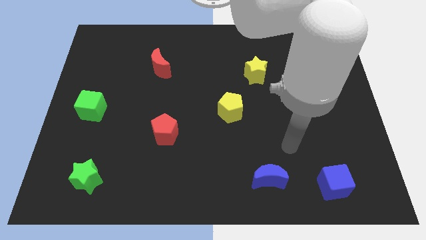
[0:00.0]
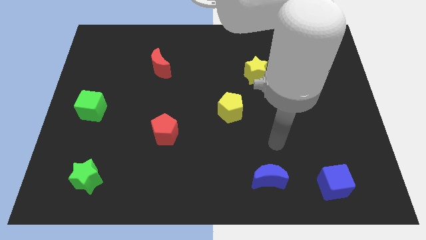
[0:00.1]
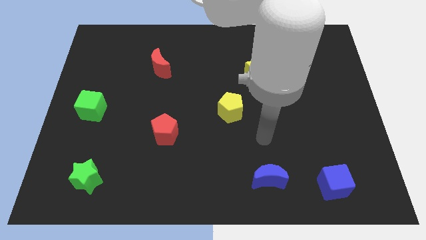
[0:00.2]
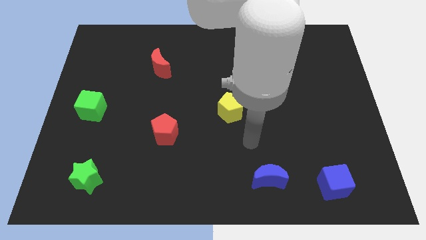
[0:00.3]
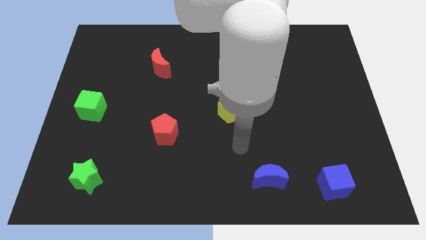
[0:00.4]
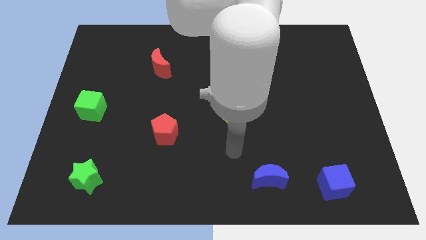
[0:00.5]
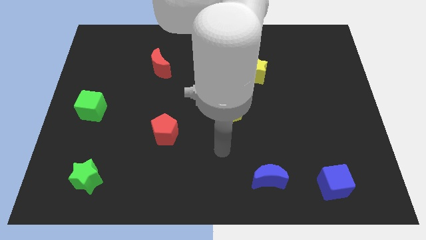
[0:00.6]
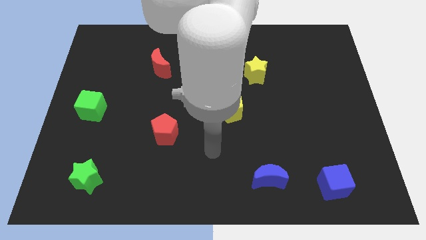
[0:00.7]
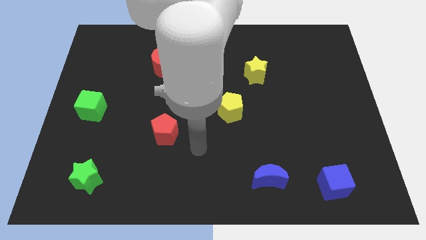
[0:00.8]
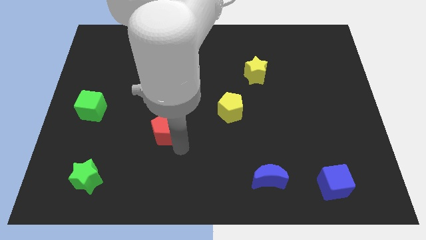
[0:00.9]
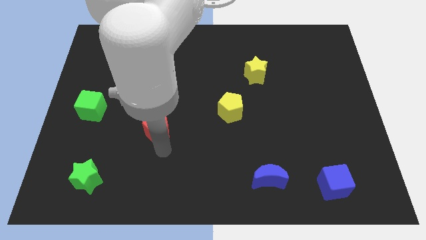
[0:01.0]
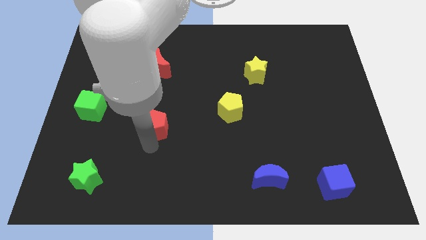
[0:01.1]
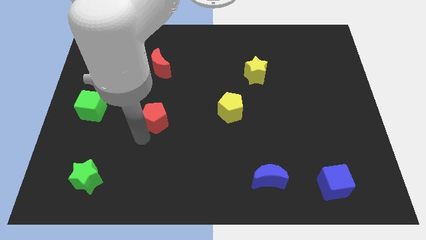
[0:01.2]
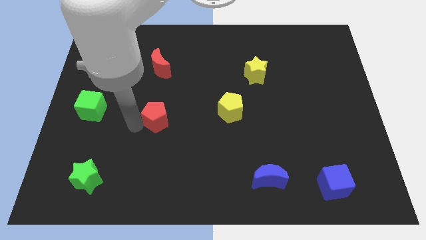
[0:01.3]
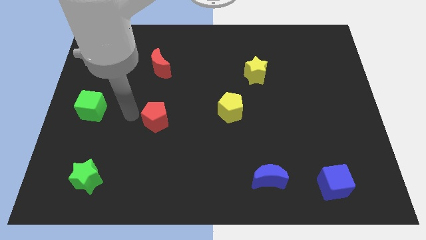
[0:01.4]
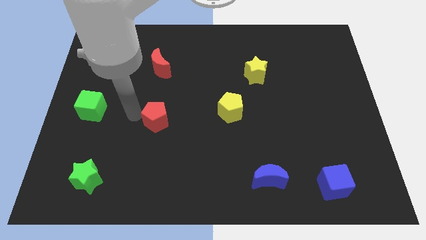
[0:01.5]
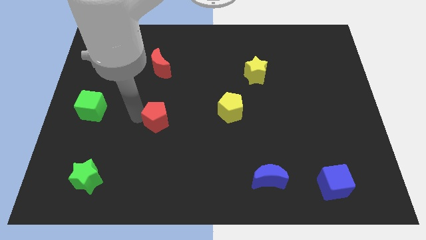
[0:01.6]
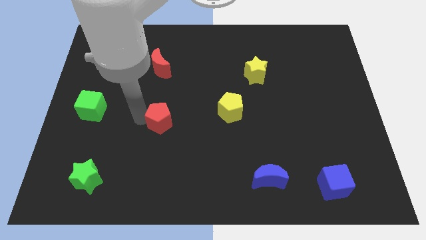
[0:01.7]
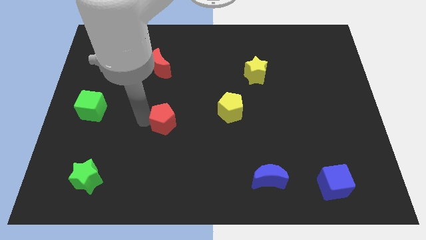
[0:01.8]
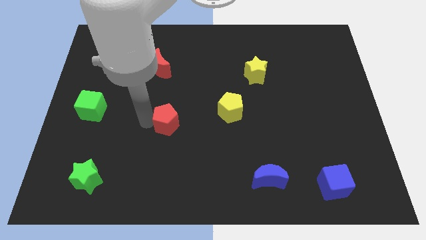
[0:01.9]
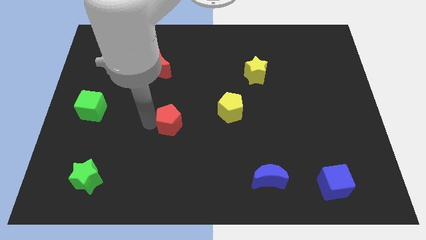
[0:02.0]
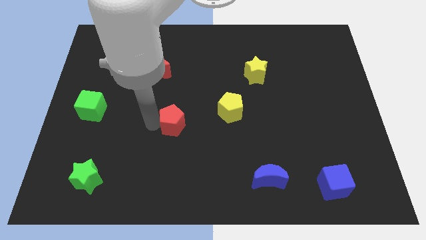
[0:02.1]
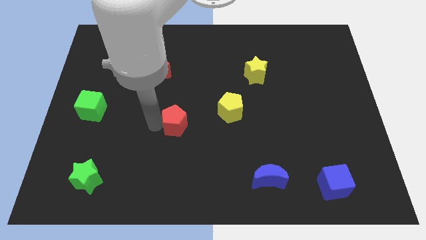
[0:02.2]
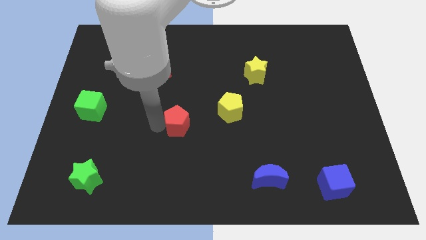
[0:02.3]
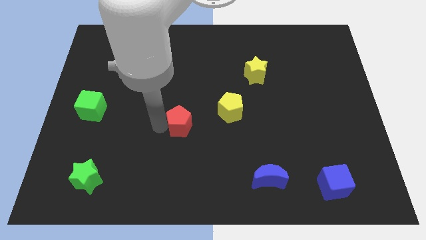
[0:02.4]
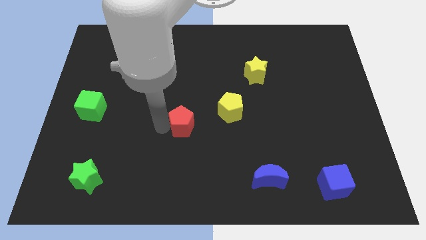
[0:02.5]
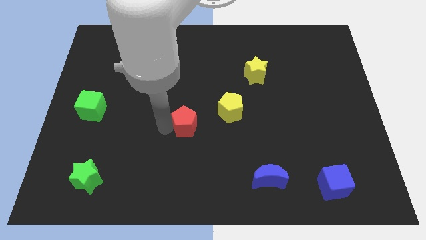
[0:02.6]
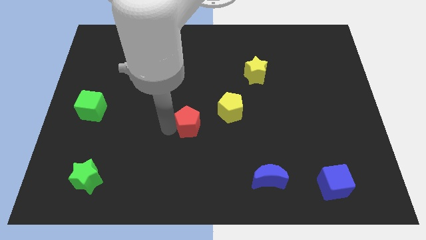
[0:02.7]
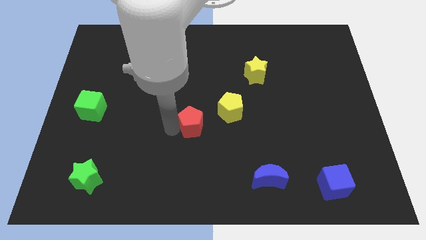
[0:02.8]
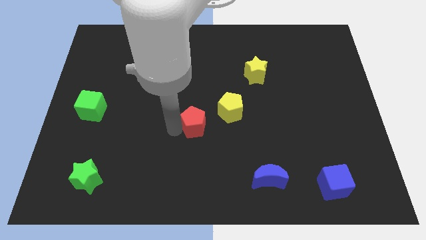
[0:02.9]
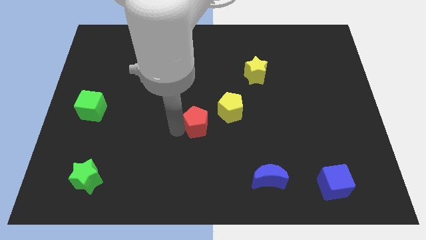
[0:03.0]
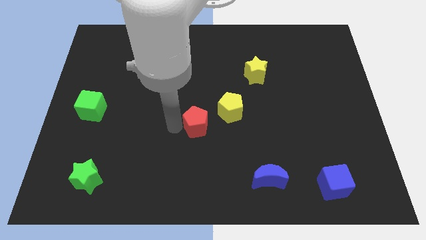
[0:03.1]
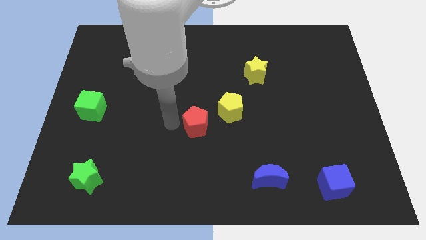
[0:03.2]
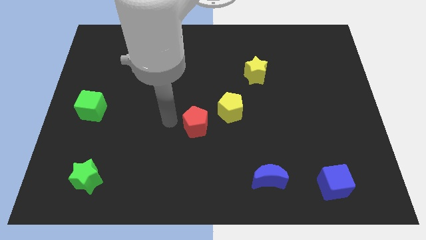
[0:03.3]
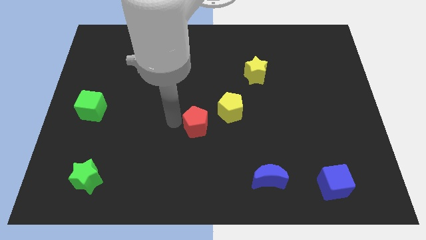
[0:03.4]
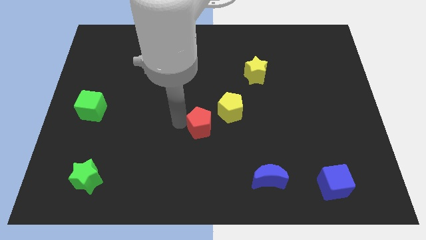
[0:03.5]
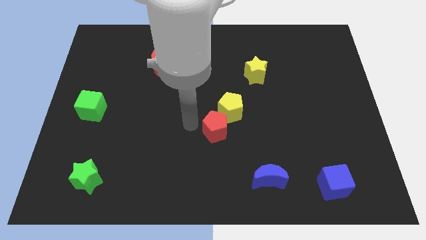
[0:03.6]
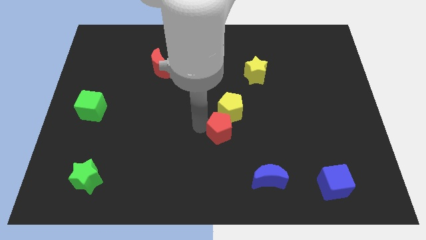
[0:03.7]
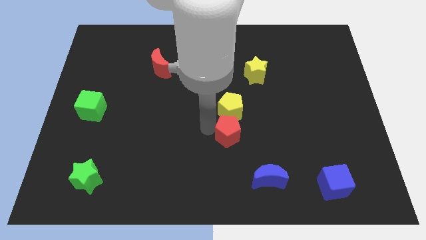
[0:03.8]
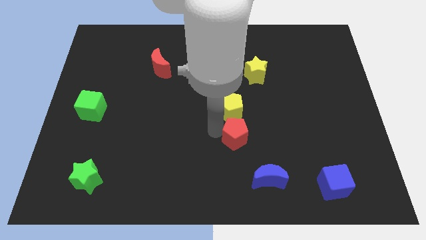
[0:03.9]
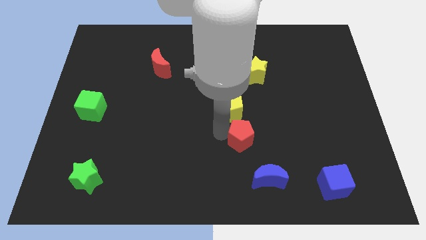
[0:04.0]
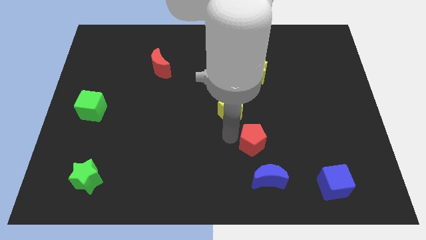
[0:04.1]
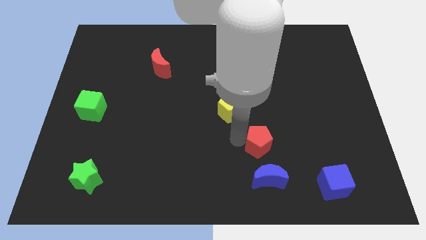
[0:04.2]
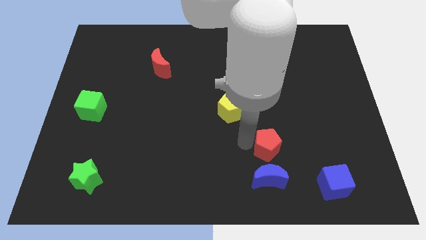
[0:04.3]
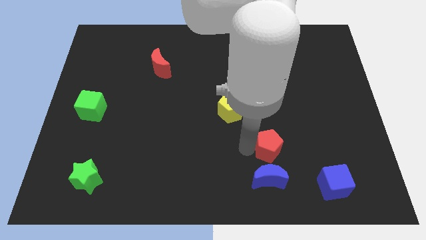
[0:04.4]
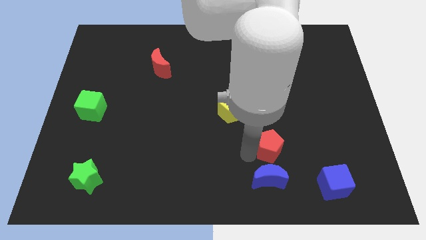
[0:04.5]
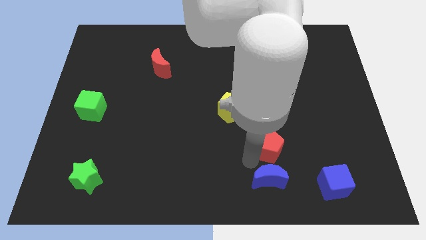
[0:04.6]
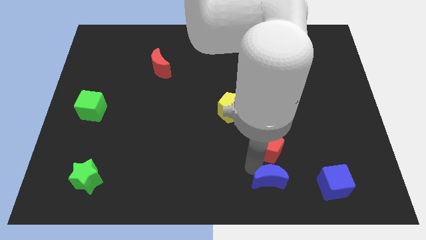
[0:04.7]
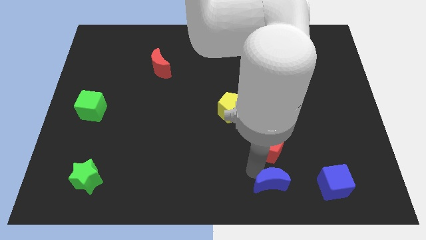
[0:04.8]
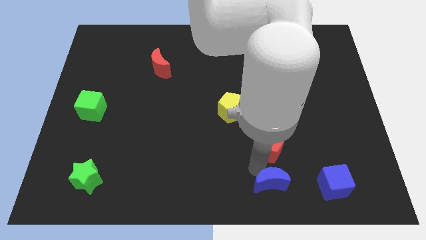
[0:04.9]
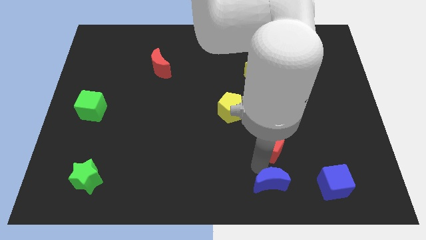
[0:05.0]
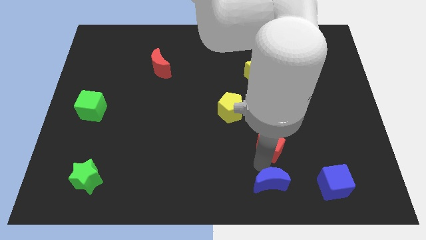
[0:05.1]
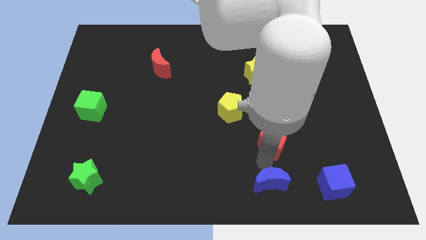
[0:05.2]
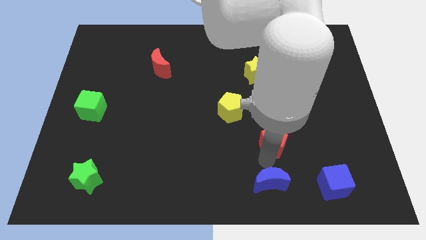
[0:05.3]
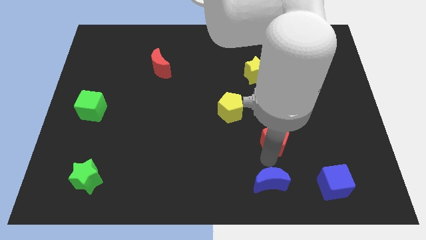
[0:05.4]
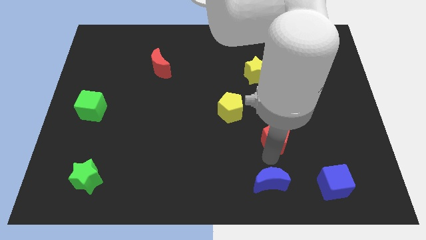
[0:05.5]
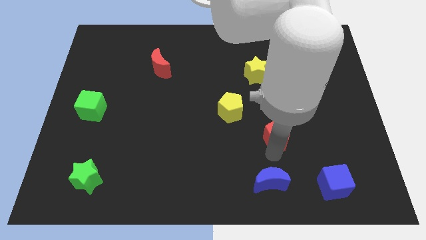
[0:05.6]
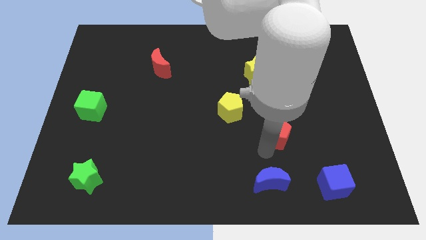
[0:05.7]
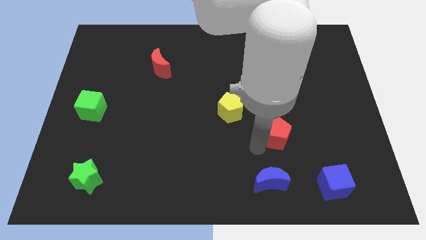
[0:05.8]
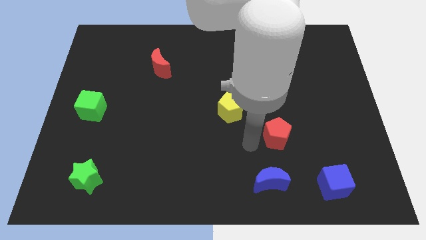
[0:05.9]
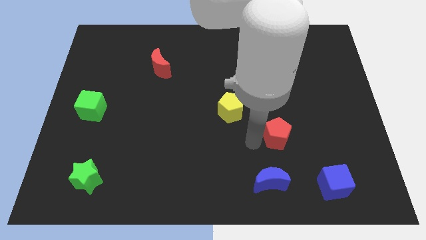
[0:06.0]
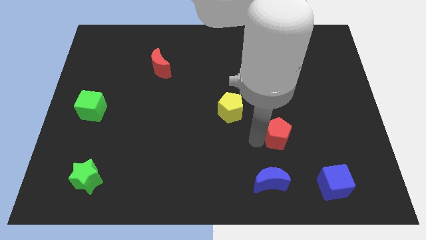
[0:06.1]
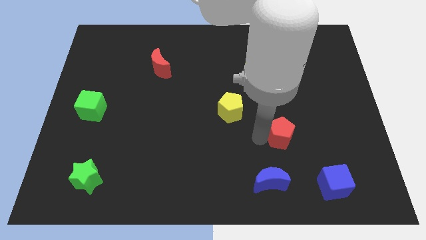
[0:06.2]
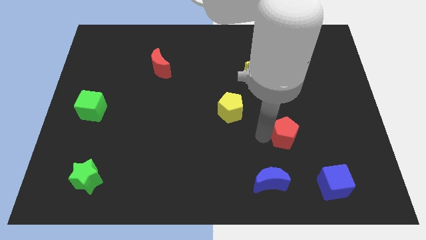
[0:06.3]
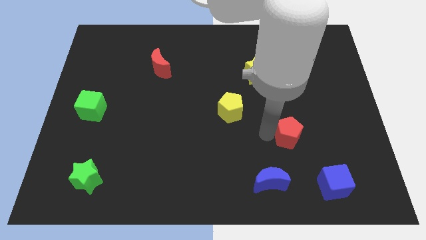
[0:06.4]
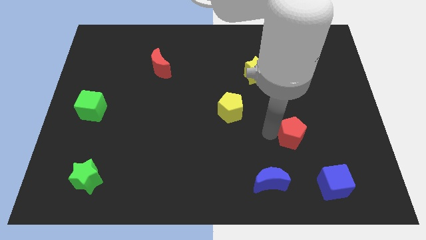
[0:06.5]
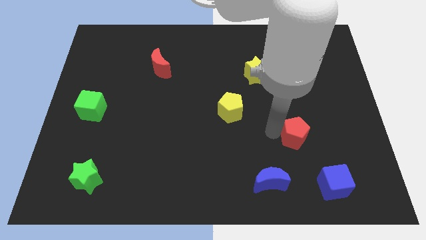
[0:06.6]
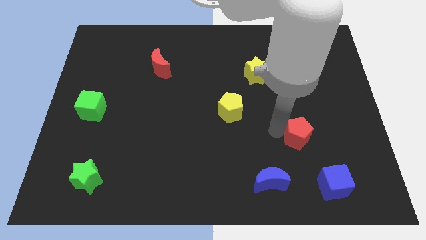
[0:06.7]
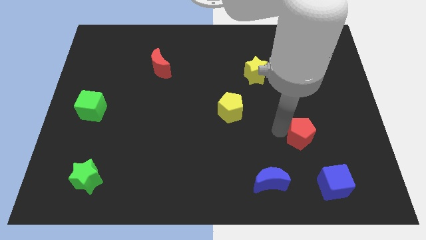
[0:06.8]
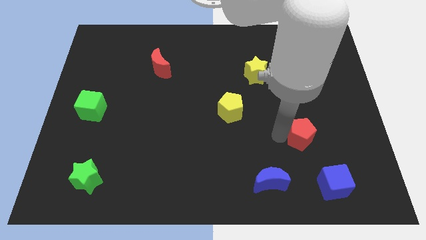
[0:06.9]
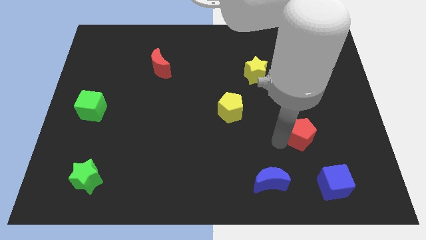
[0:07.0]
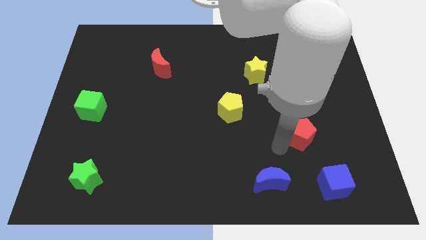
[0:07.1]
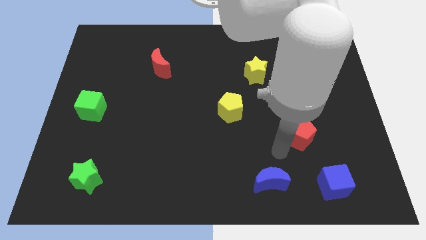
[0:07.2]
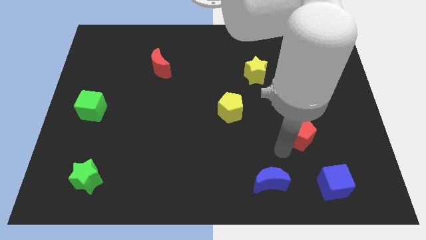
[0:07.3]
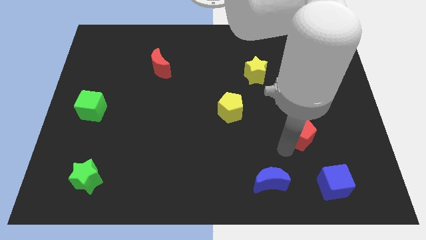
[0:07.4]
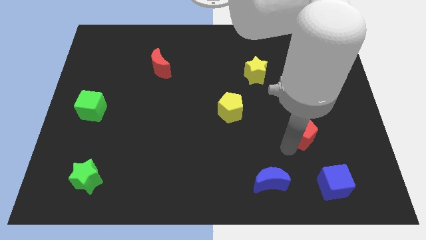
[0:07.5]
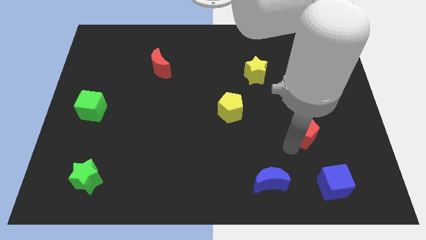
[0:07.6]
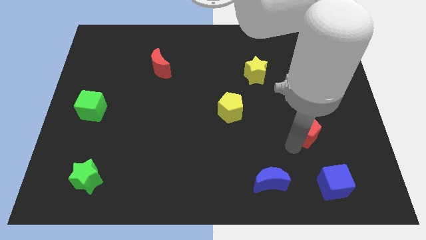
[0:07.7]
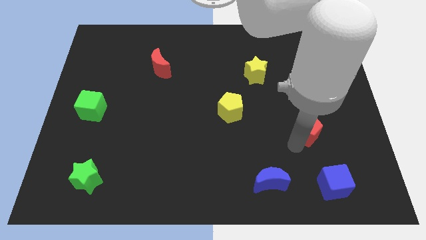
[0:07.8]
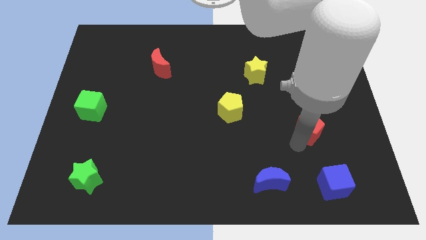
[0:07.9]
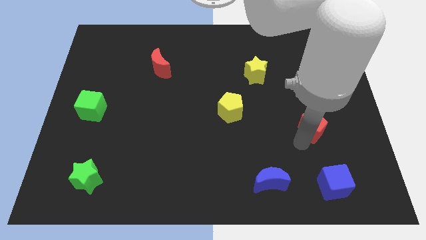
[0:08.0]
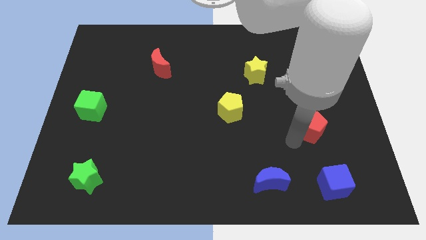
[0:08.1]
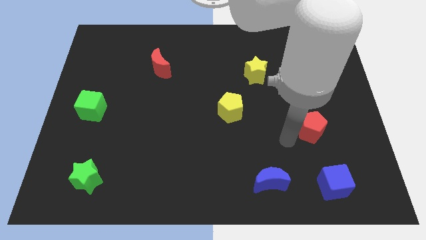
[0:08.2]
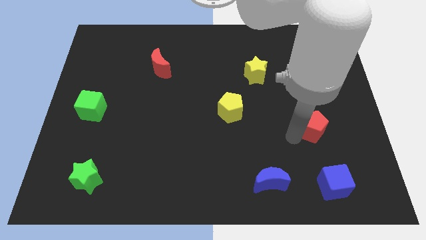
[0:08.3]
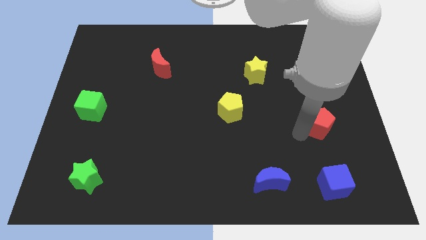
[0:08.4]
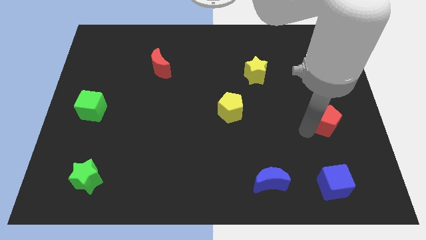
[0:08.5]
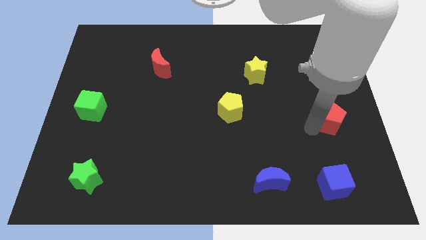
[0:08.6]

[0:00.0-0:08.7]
push the red pentagon to the right side
